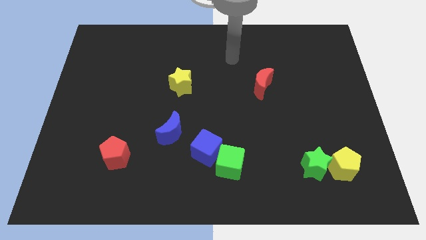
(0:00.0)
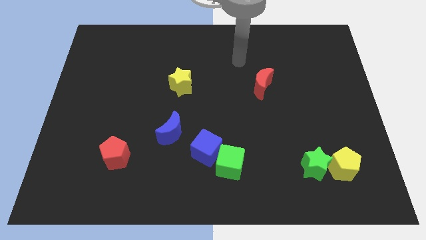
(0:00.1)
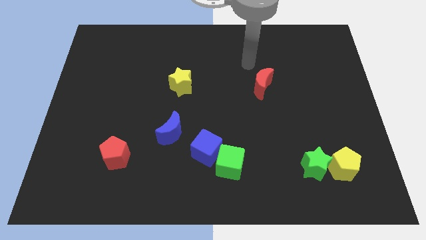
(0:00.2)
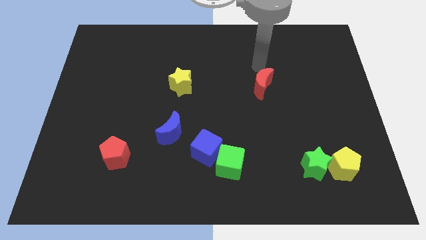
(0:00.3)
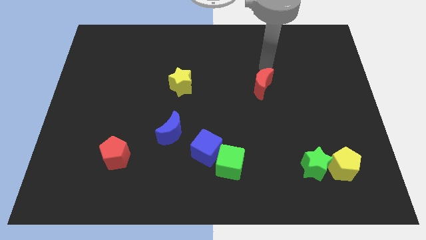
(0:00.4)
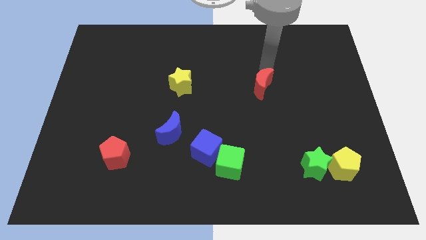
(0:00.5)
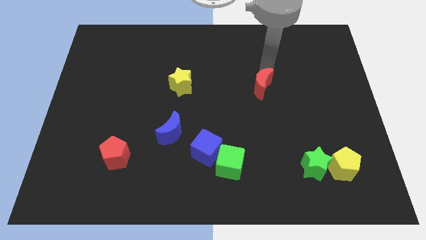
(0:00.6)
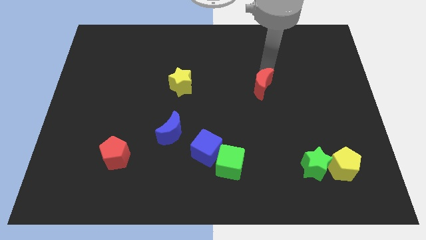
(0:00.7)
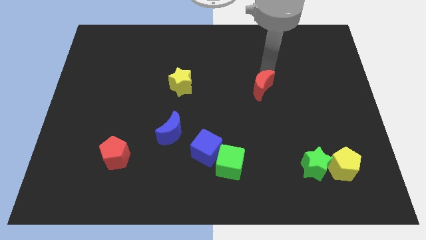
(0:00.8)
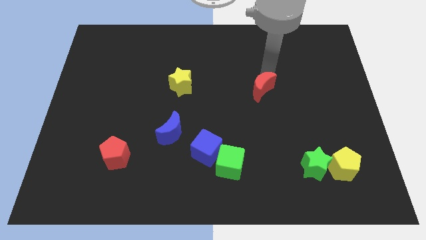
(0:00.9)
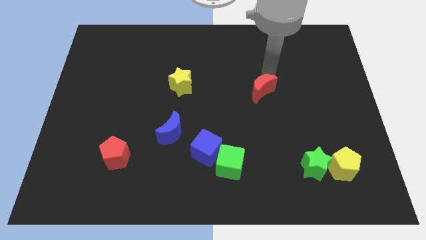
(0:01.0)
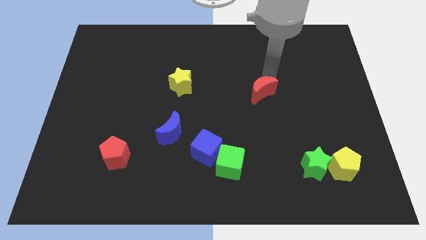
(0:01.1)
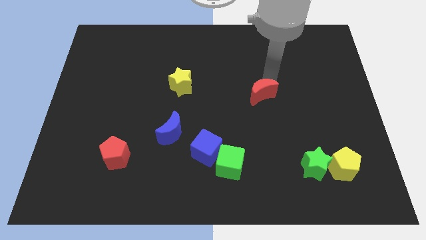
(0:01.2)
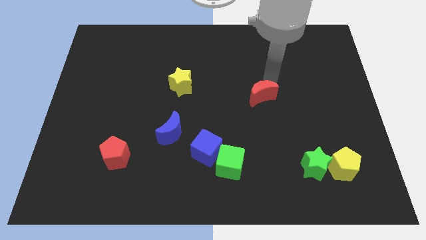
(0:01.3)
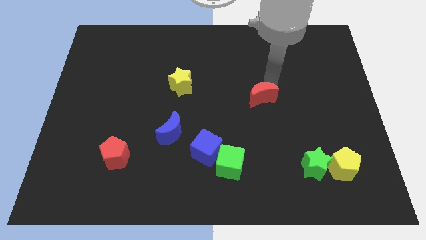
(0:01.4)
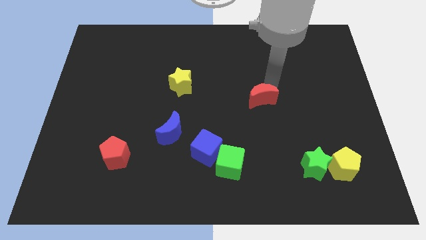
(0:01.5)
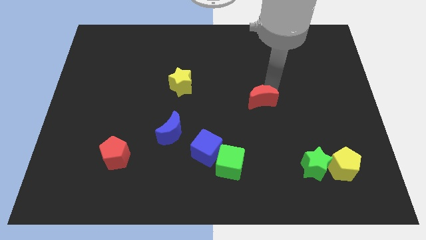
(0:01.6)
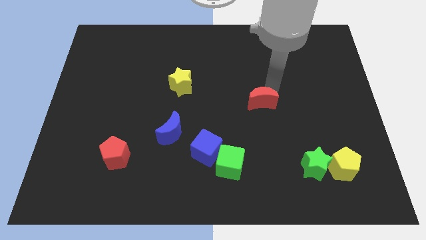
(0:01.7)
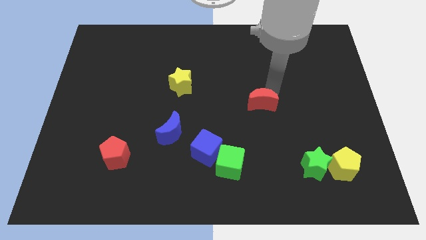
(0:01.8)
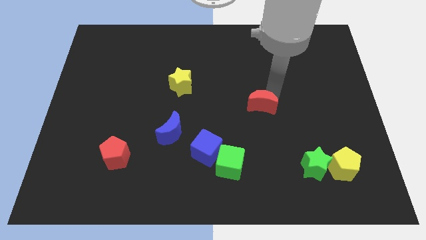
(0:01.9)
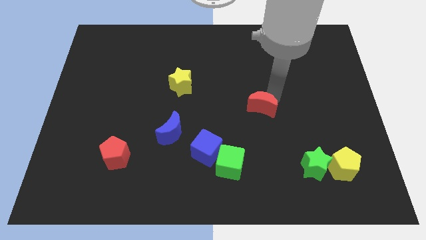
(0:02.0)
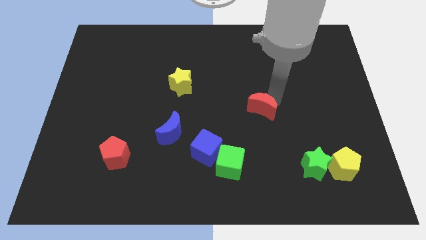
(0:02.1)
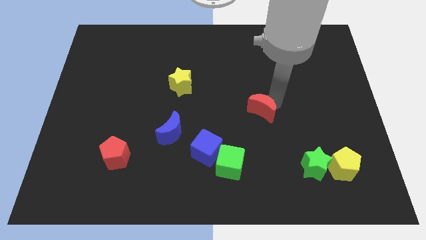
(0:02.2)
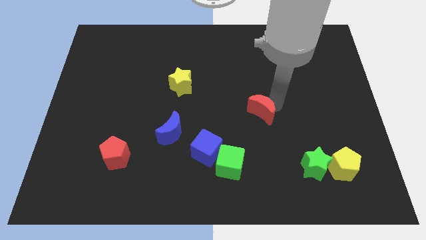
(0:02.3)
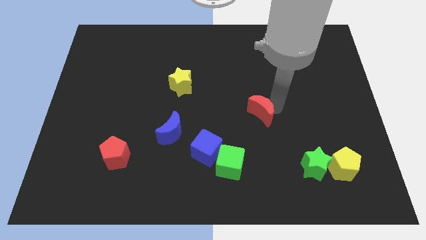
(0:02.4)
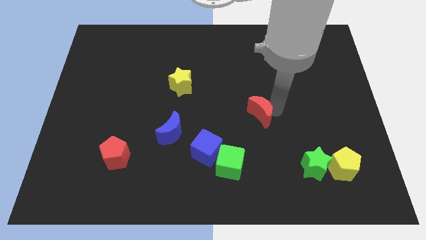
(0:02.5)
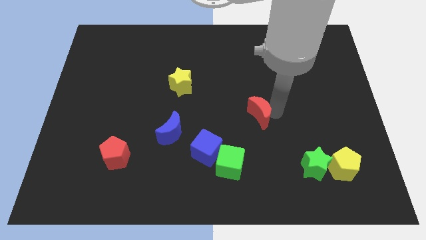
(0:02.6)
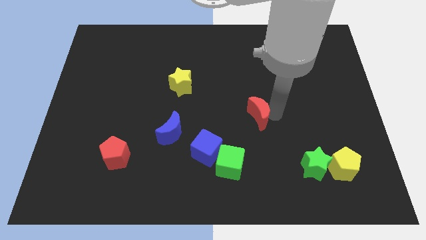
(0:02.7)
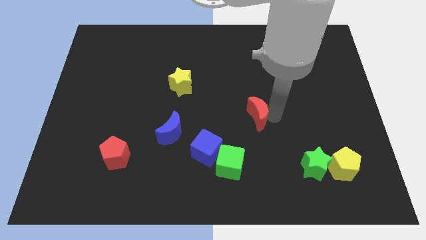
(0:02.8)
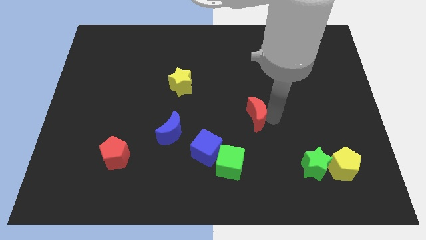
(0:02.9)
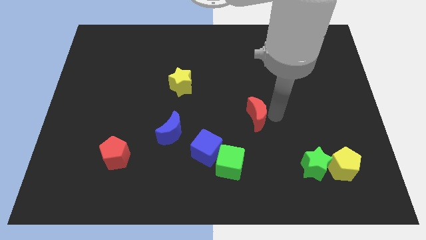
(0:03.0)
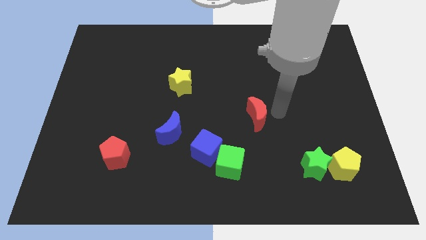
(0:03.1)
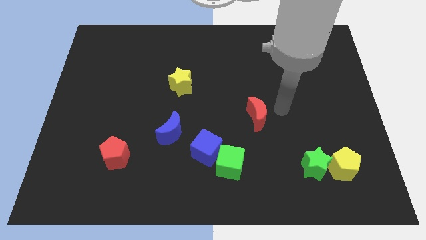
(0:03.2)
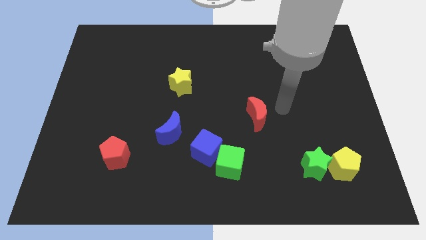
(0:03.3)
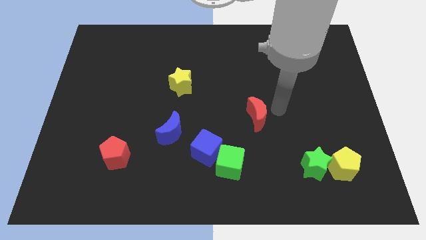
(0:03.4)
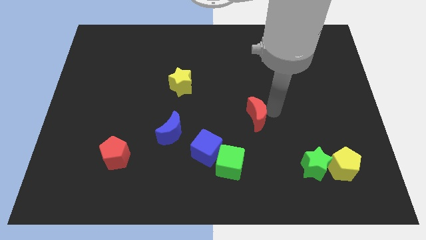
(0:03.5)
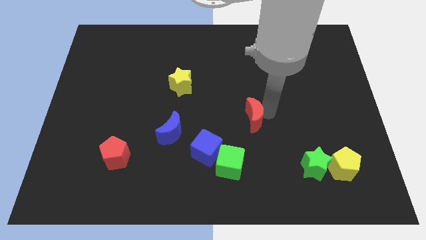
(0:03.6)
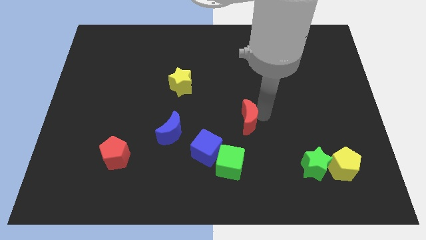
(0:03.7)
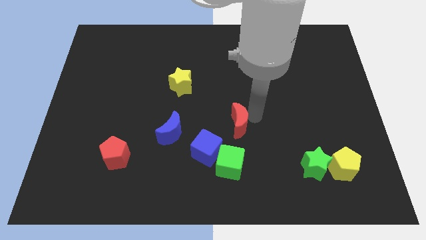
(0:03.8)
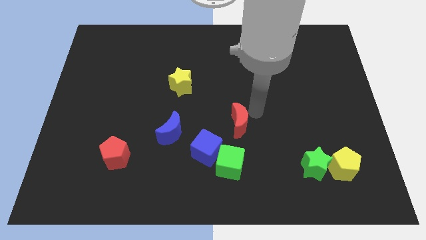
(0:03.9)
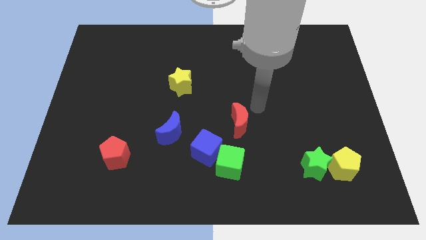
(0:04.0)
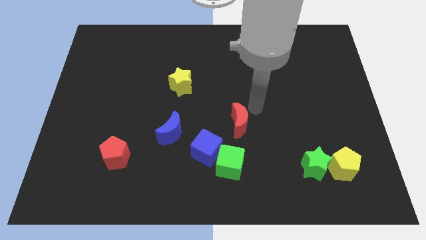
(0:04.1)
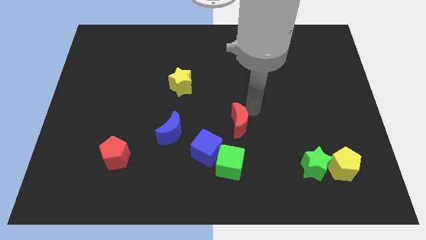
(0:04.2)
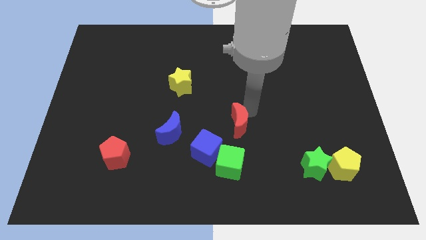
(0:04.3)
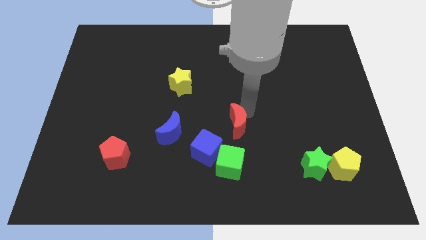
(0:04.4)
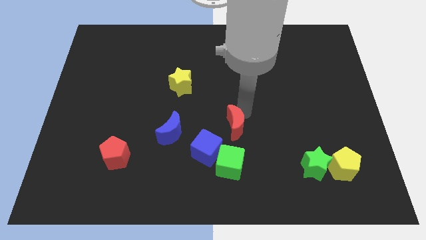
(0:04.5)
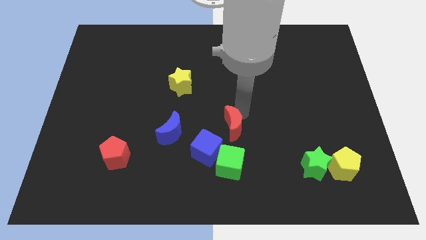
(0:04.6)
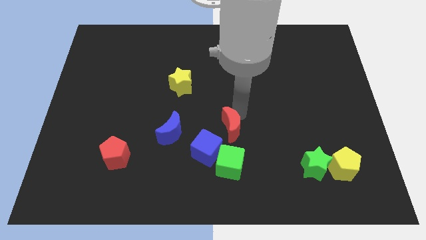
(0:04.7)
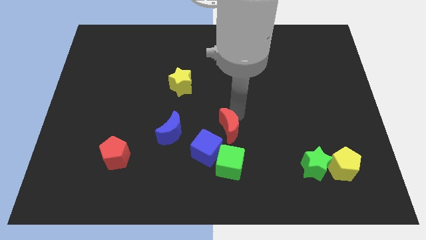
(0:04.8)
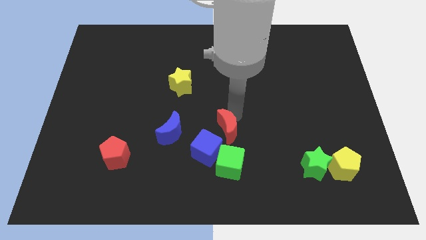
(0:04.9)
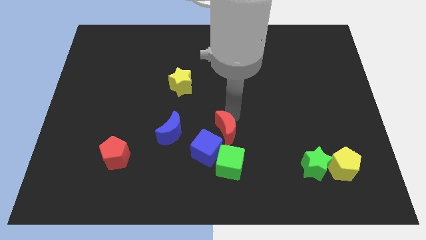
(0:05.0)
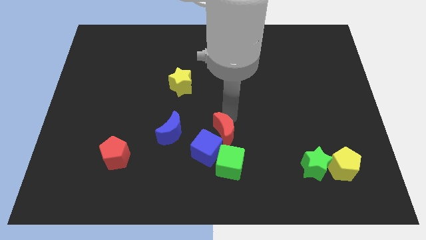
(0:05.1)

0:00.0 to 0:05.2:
move the red moon towards the blue cube
